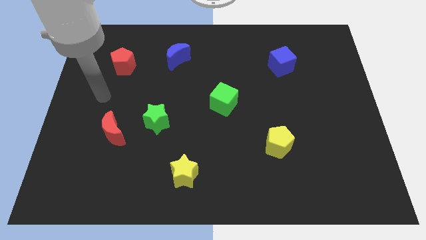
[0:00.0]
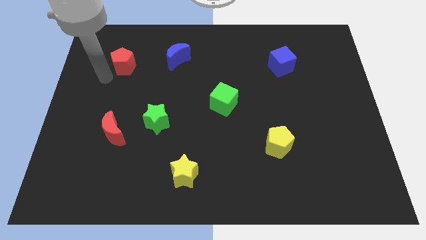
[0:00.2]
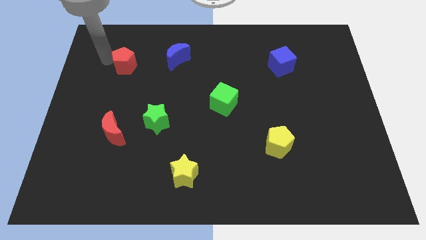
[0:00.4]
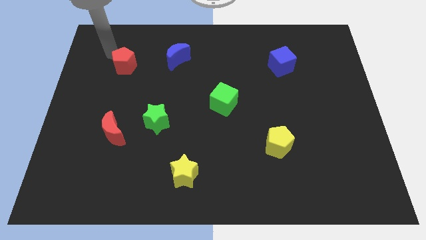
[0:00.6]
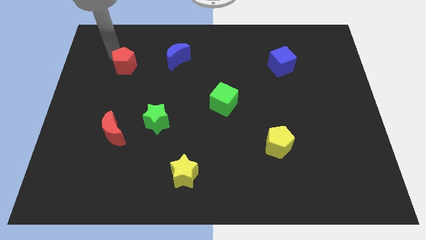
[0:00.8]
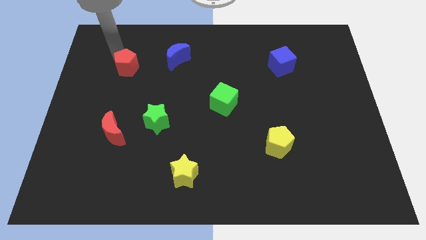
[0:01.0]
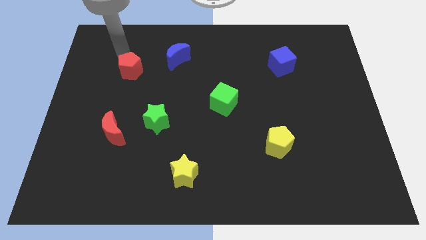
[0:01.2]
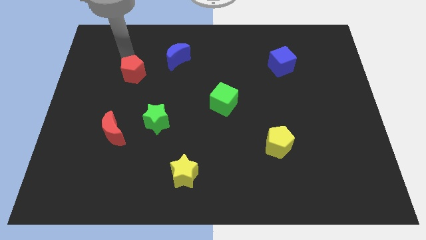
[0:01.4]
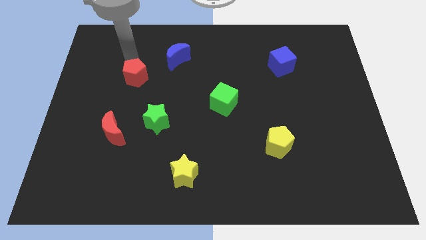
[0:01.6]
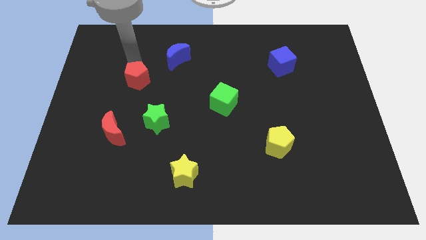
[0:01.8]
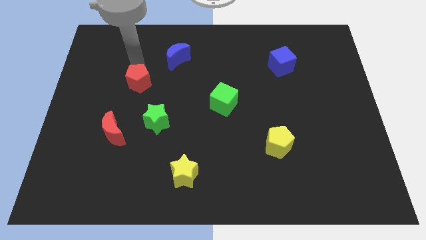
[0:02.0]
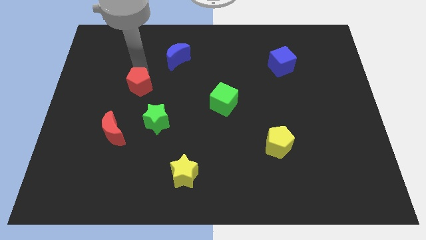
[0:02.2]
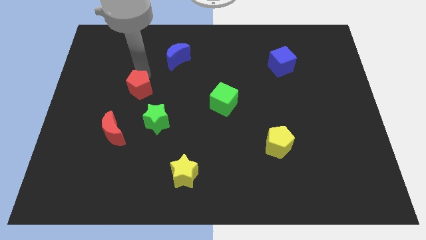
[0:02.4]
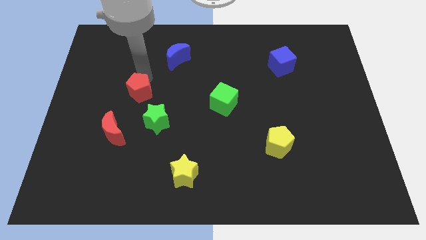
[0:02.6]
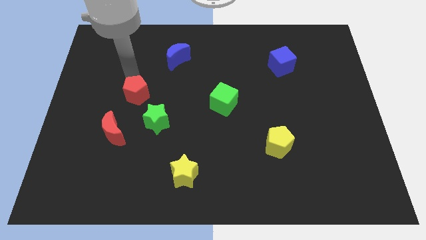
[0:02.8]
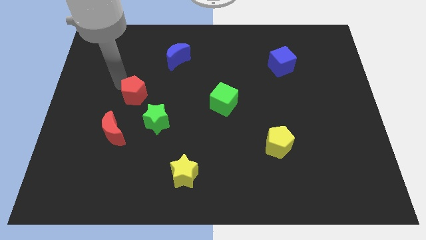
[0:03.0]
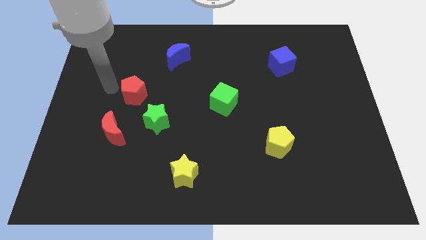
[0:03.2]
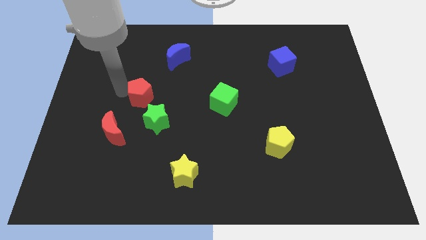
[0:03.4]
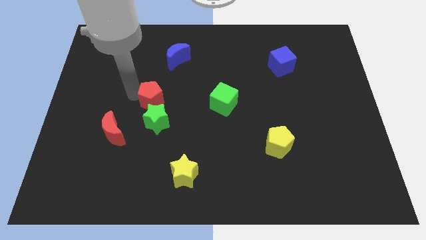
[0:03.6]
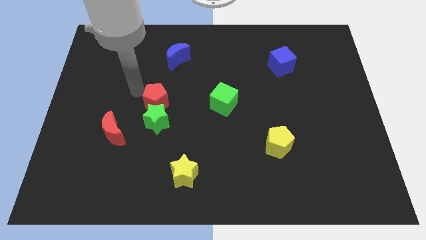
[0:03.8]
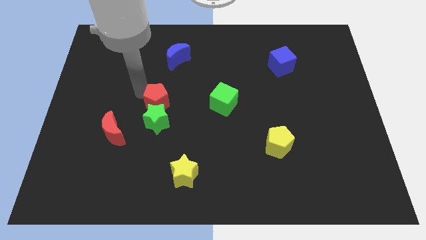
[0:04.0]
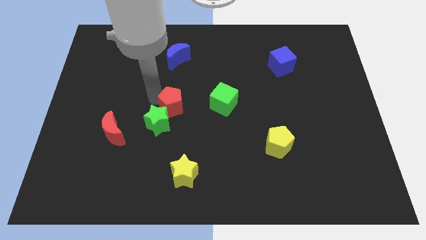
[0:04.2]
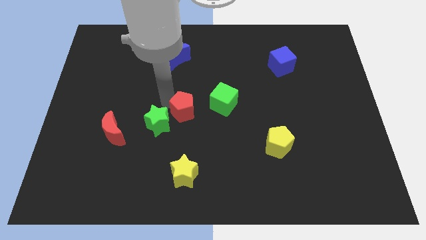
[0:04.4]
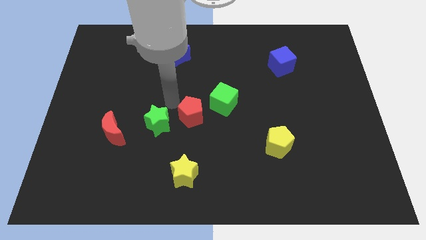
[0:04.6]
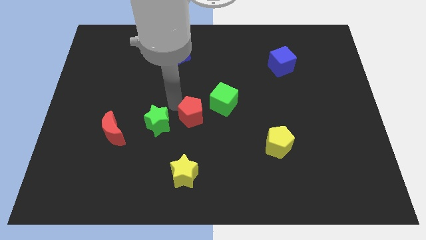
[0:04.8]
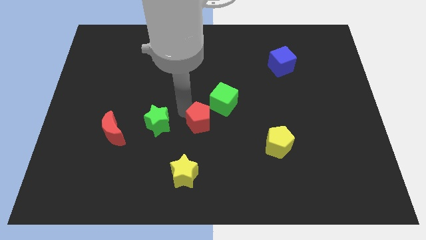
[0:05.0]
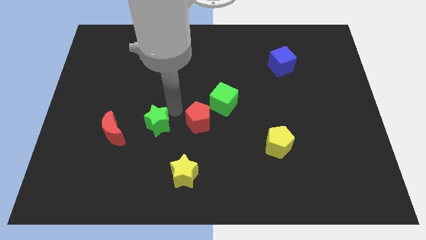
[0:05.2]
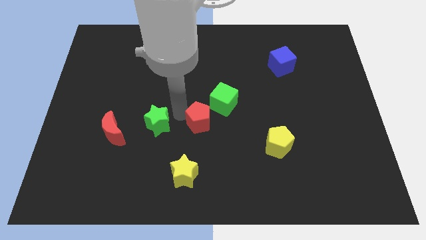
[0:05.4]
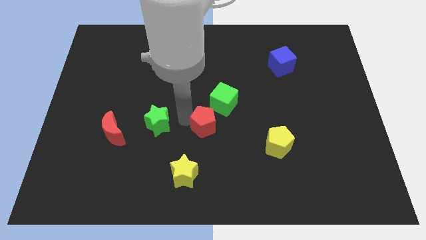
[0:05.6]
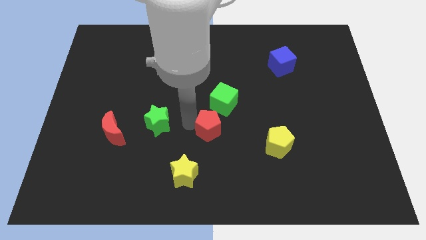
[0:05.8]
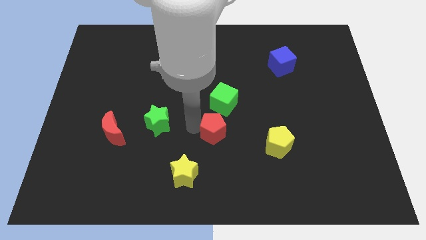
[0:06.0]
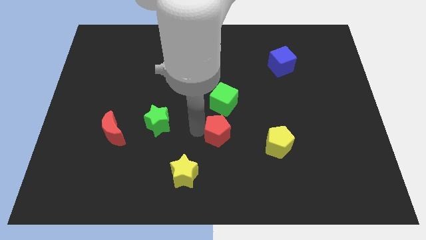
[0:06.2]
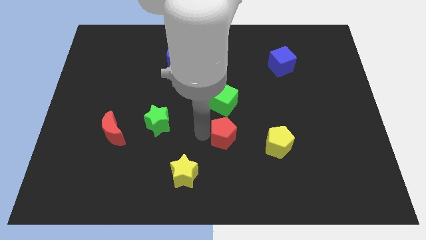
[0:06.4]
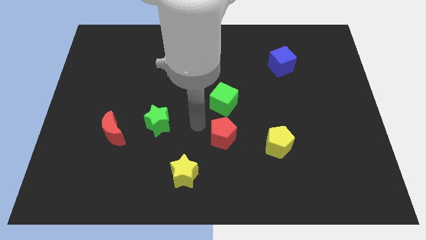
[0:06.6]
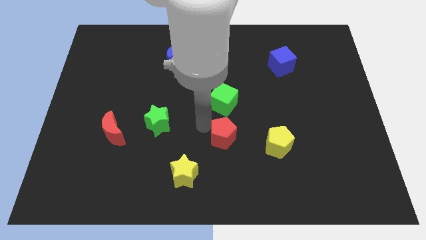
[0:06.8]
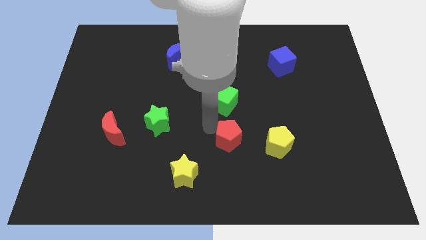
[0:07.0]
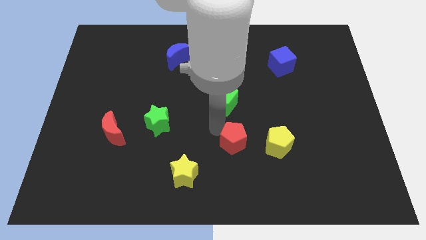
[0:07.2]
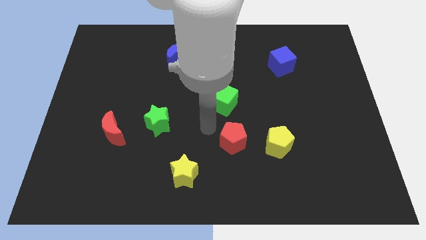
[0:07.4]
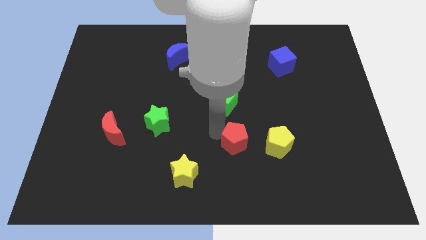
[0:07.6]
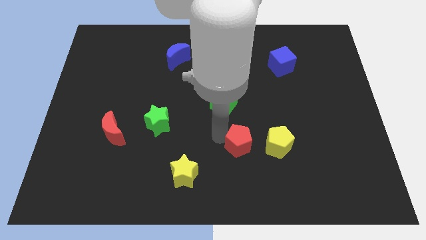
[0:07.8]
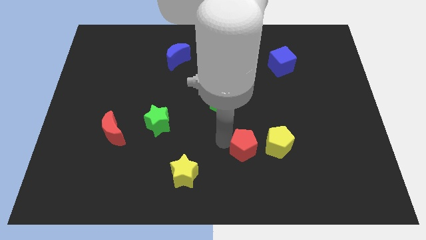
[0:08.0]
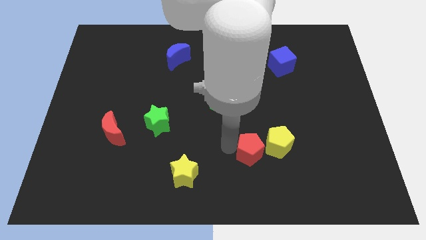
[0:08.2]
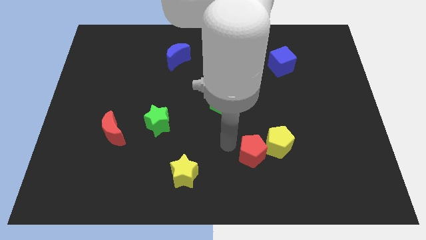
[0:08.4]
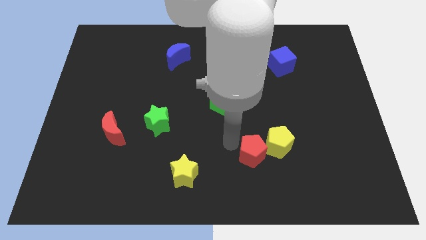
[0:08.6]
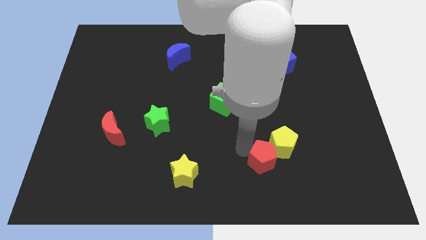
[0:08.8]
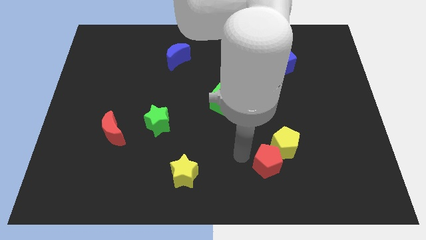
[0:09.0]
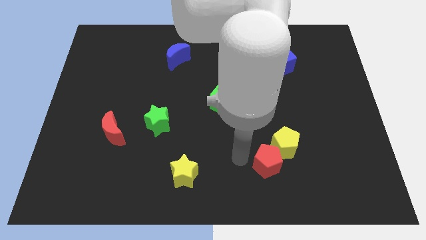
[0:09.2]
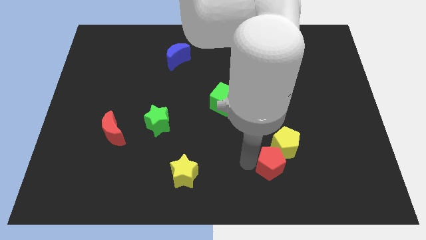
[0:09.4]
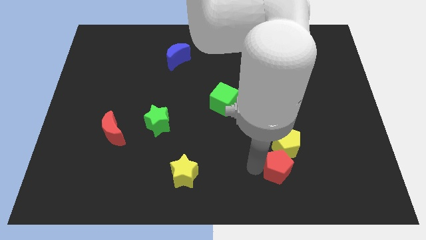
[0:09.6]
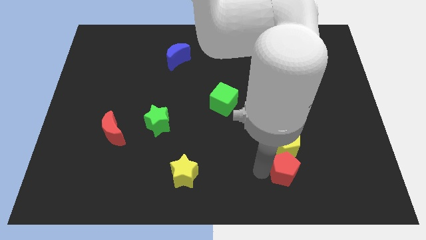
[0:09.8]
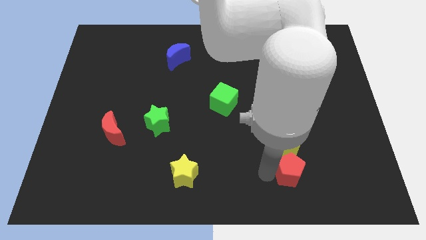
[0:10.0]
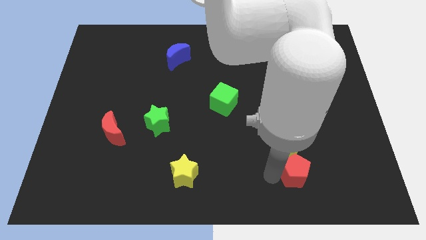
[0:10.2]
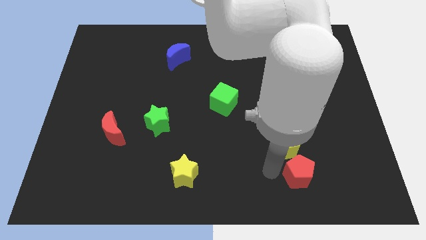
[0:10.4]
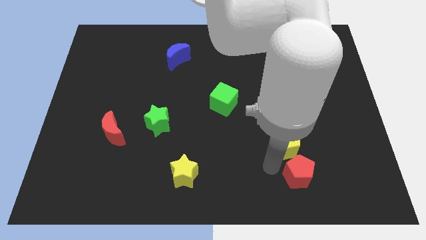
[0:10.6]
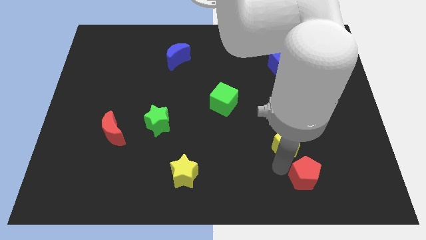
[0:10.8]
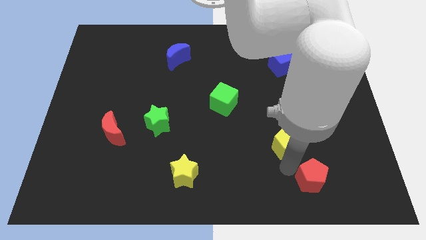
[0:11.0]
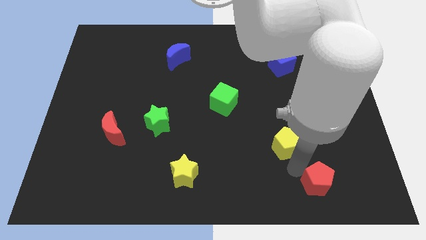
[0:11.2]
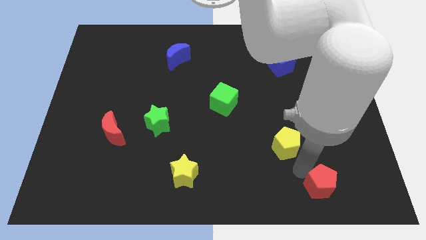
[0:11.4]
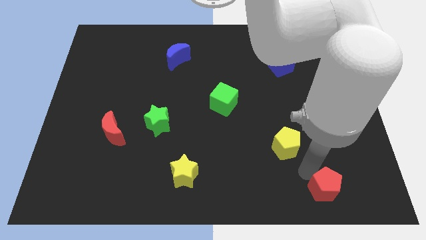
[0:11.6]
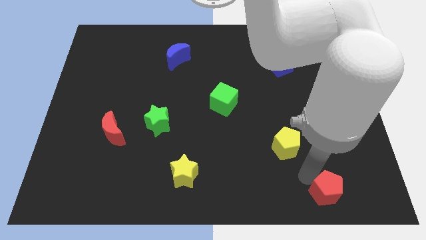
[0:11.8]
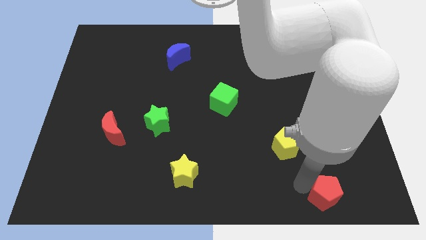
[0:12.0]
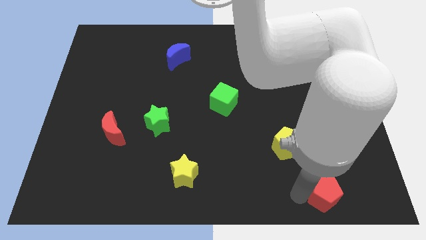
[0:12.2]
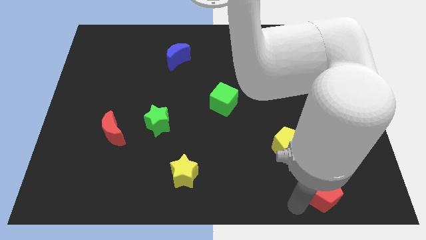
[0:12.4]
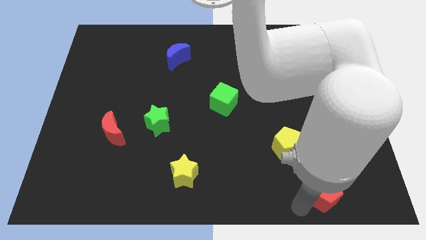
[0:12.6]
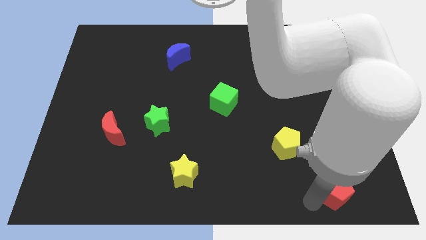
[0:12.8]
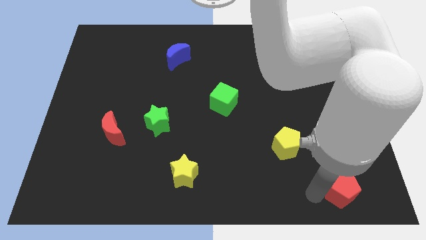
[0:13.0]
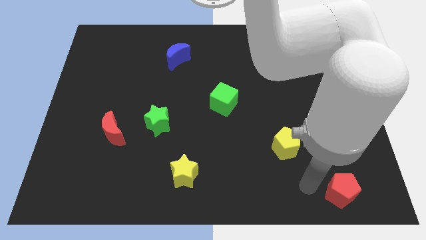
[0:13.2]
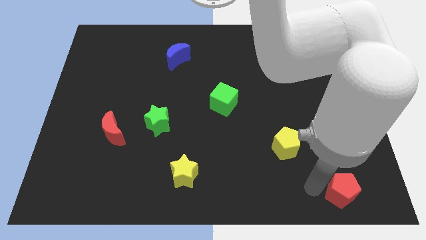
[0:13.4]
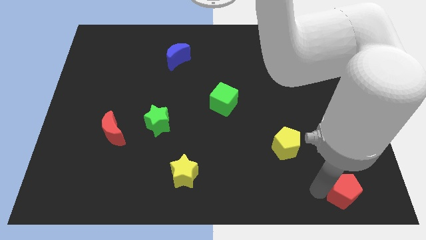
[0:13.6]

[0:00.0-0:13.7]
slide the red pentagon to the bottom right corner
